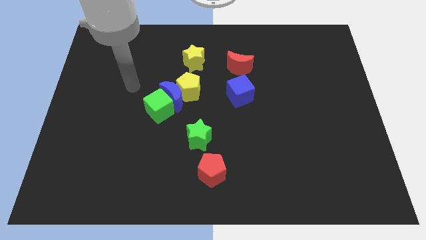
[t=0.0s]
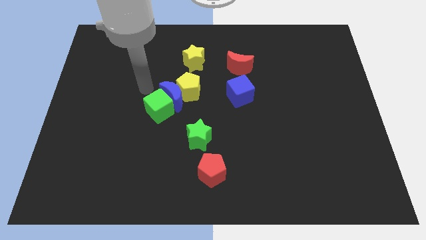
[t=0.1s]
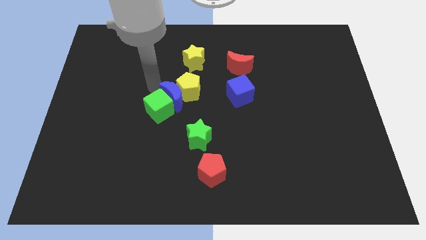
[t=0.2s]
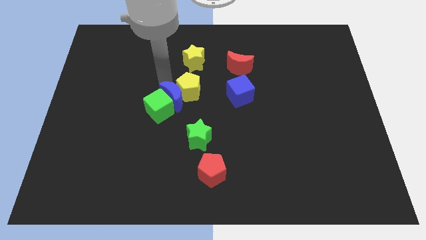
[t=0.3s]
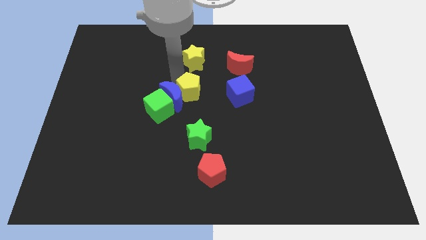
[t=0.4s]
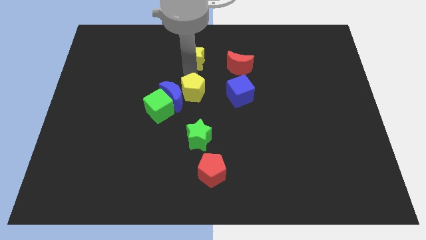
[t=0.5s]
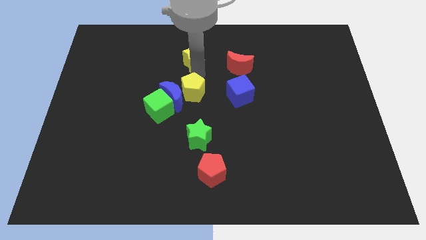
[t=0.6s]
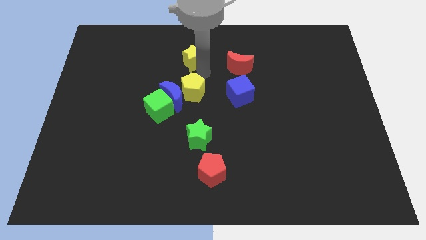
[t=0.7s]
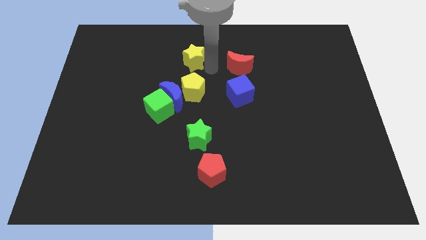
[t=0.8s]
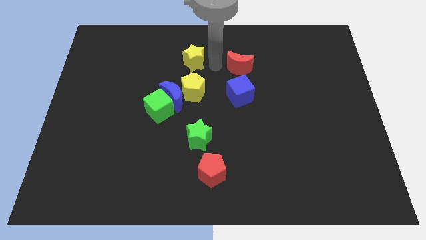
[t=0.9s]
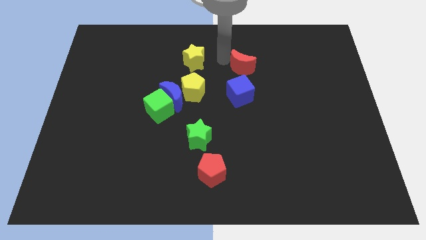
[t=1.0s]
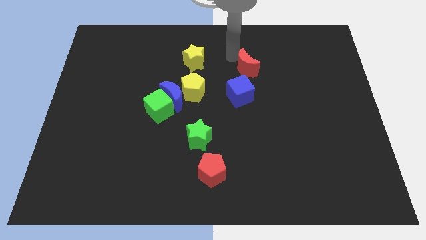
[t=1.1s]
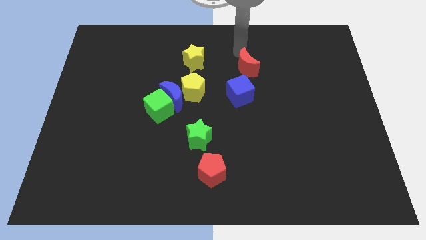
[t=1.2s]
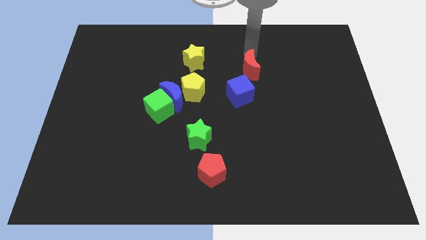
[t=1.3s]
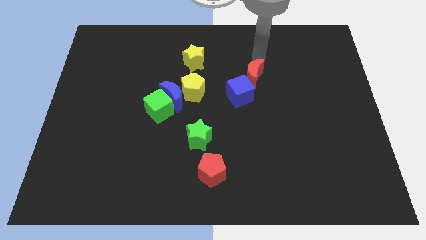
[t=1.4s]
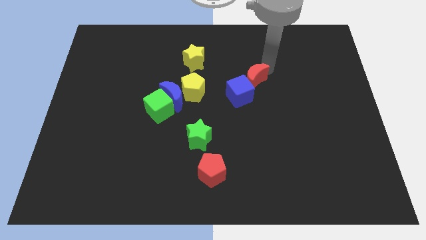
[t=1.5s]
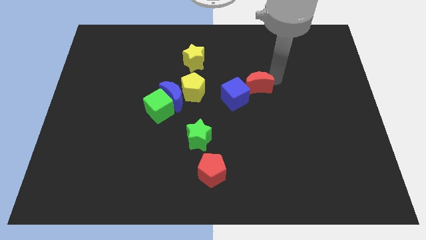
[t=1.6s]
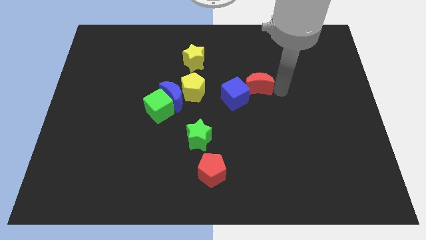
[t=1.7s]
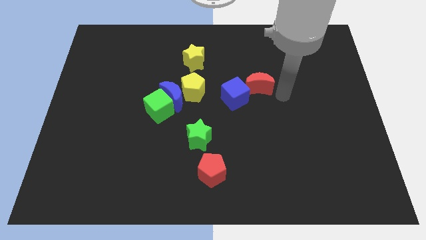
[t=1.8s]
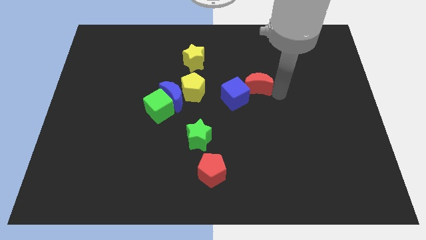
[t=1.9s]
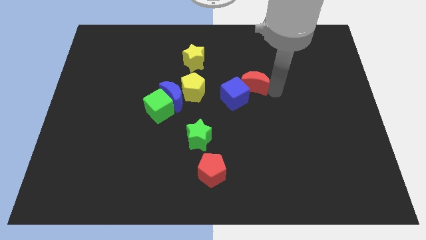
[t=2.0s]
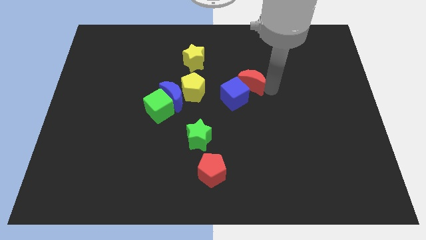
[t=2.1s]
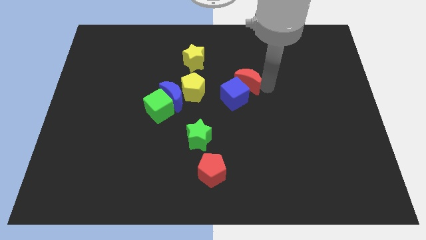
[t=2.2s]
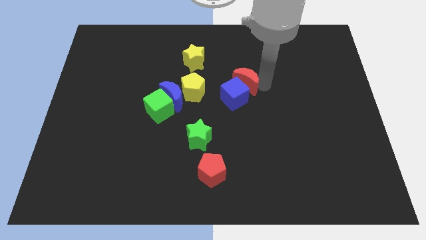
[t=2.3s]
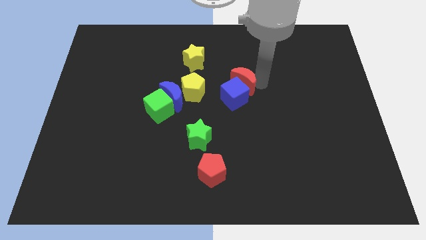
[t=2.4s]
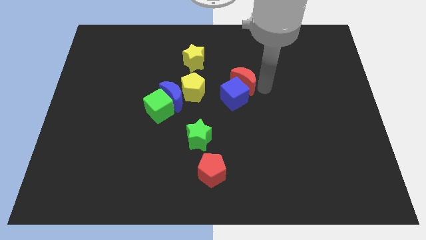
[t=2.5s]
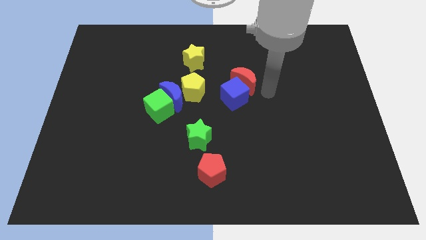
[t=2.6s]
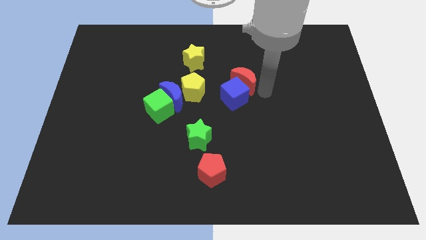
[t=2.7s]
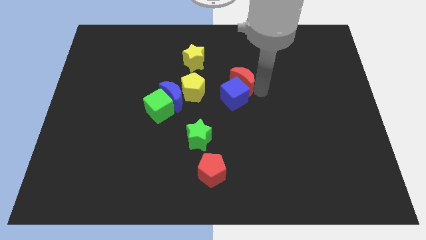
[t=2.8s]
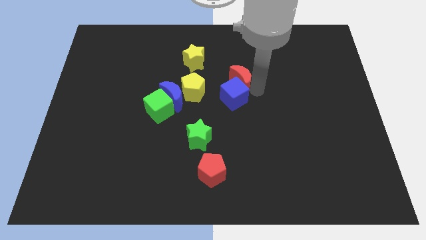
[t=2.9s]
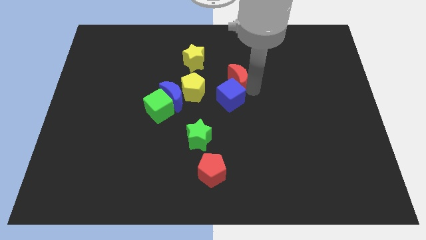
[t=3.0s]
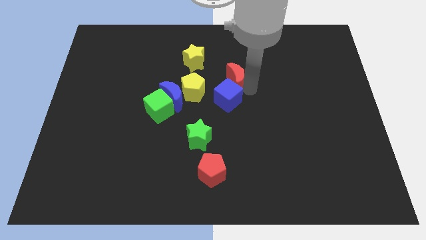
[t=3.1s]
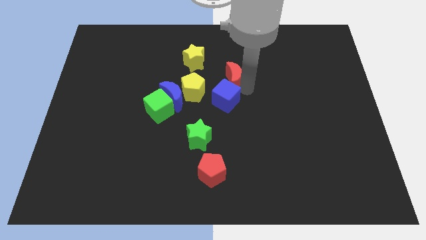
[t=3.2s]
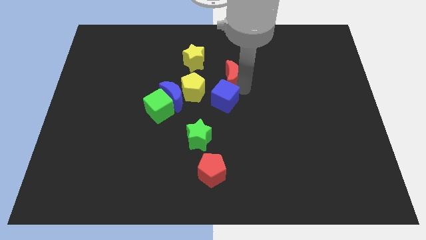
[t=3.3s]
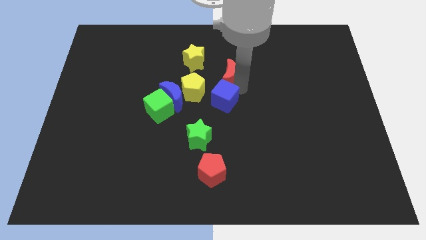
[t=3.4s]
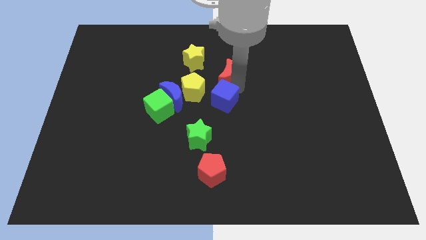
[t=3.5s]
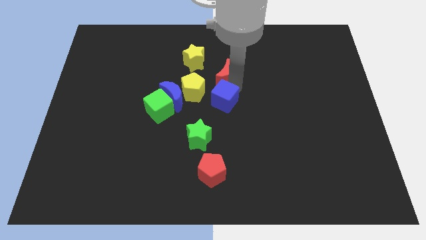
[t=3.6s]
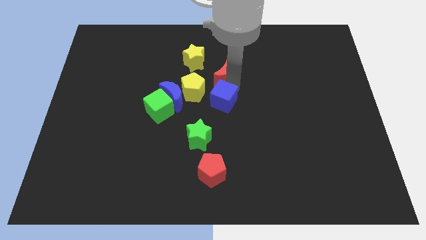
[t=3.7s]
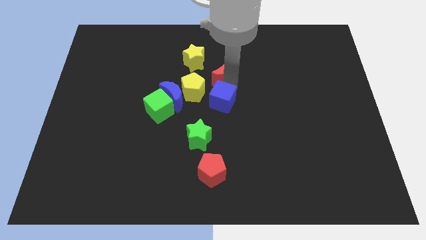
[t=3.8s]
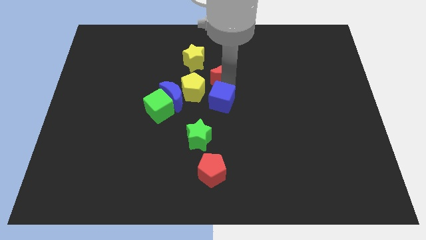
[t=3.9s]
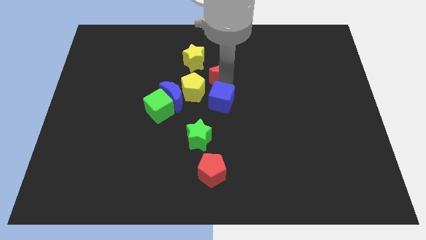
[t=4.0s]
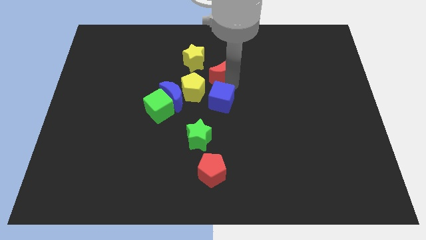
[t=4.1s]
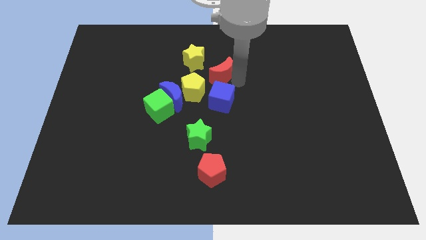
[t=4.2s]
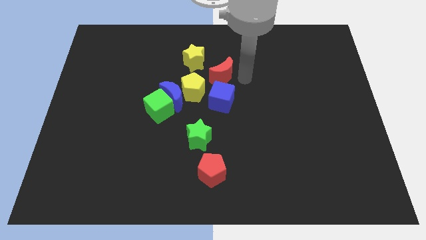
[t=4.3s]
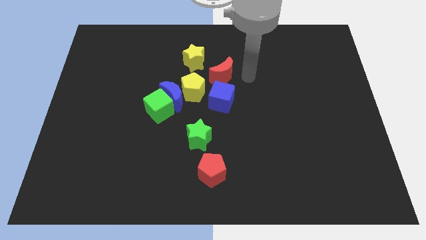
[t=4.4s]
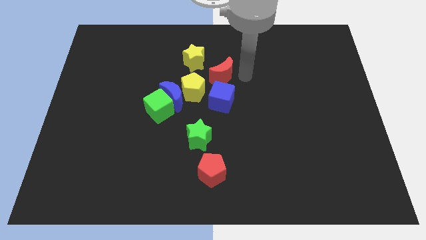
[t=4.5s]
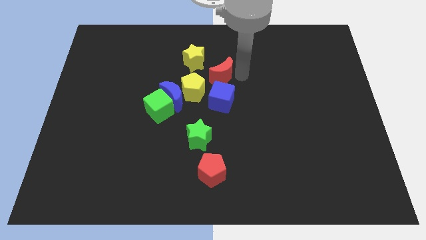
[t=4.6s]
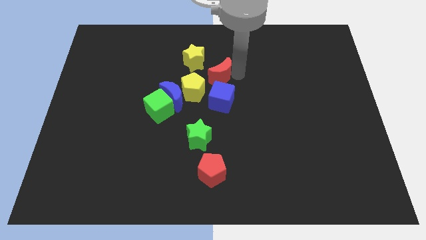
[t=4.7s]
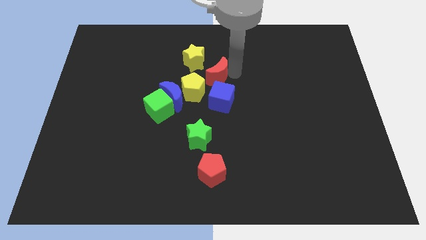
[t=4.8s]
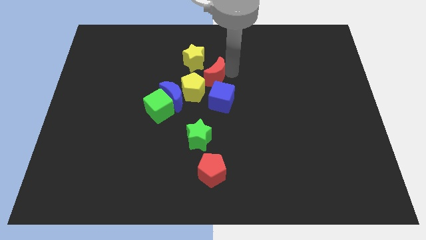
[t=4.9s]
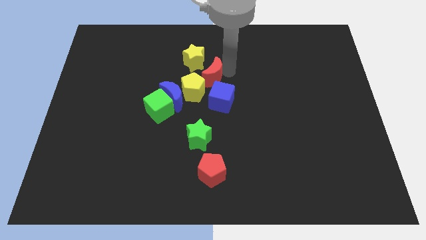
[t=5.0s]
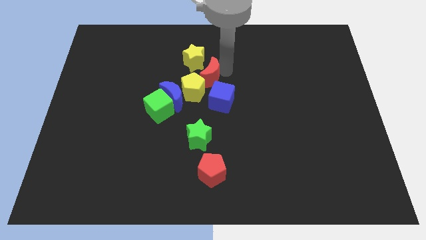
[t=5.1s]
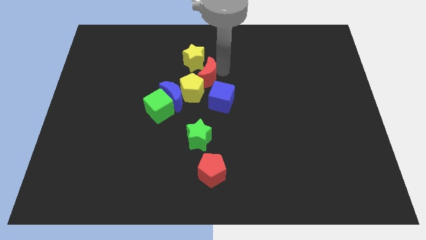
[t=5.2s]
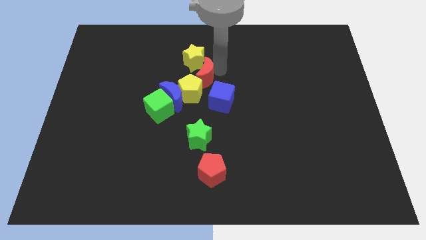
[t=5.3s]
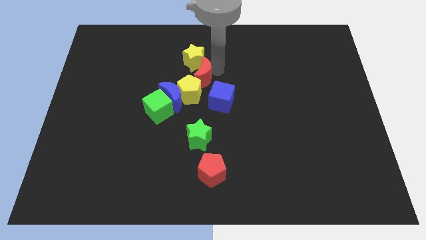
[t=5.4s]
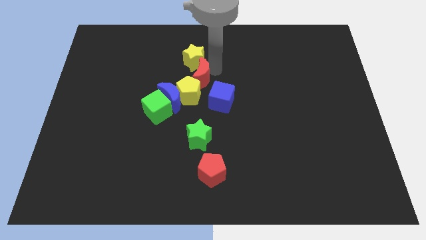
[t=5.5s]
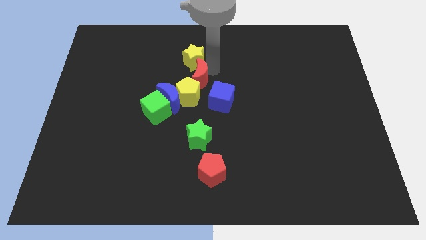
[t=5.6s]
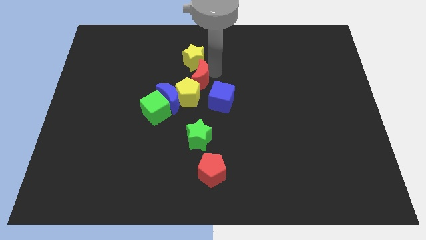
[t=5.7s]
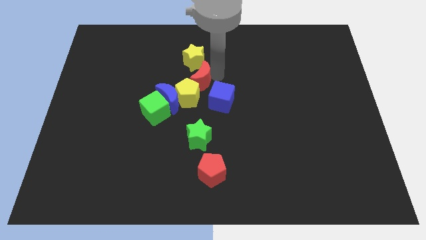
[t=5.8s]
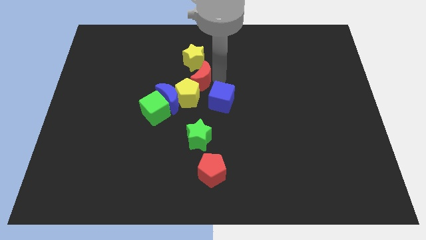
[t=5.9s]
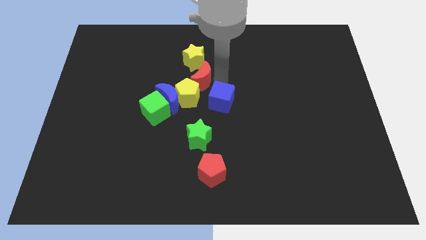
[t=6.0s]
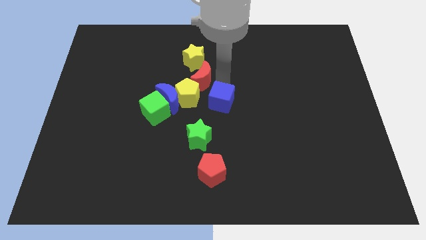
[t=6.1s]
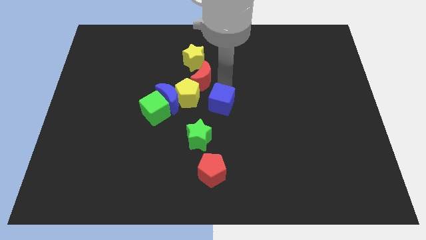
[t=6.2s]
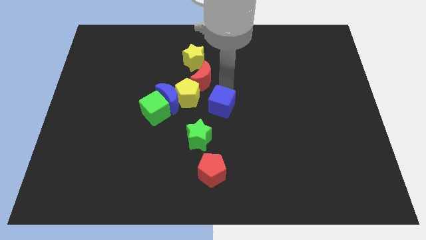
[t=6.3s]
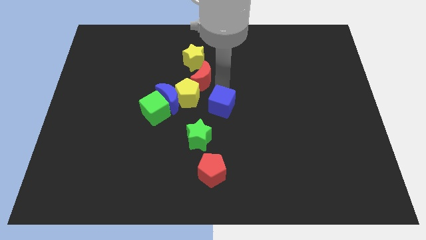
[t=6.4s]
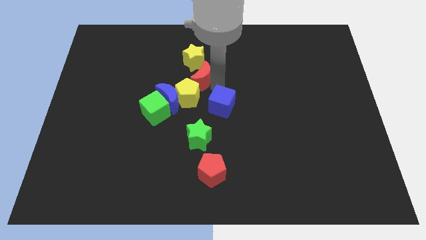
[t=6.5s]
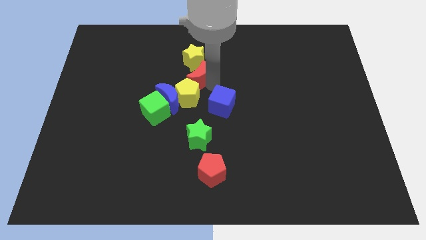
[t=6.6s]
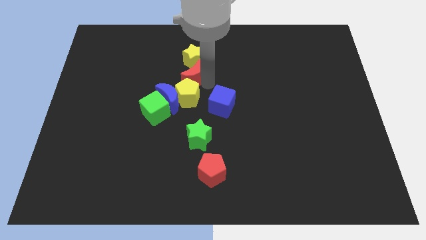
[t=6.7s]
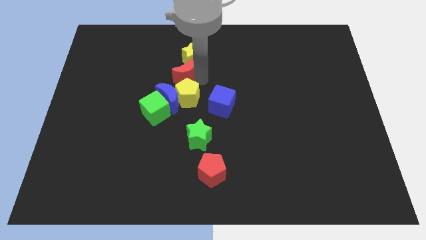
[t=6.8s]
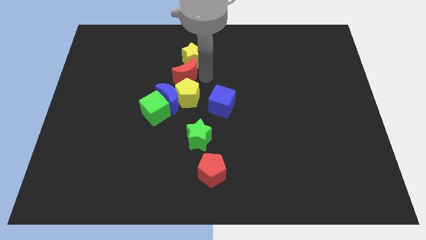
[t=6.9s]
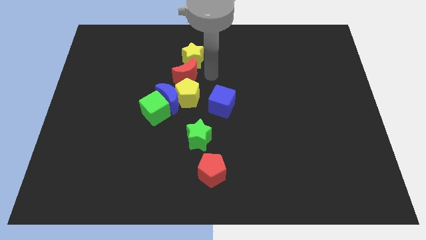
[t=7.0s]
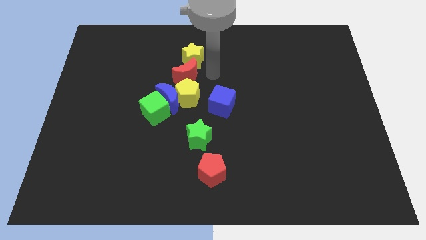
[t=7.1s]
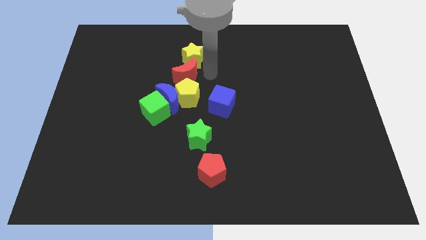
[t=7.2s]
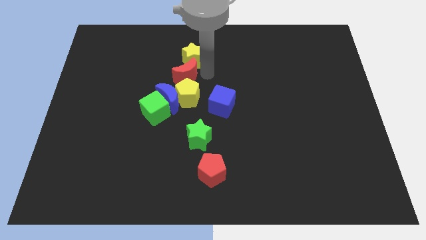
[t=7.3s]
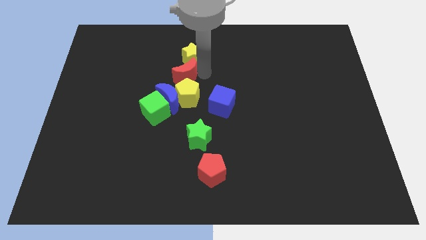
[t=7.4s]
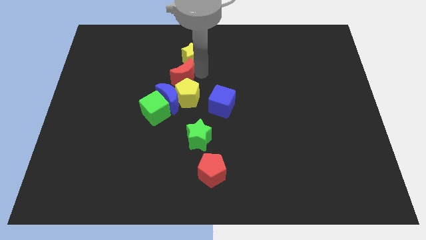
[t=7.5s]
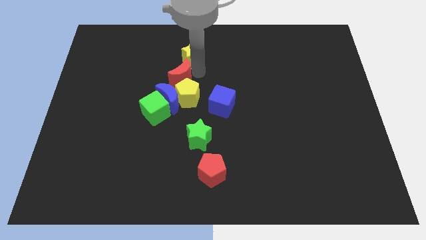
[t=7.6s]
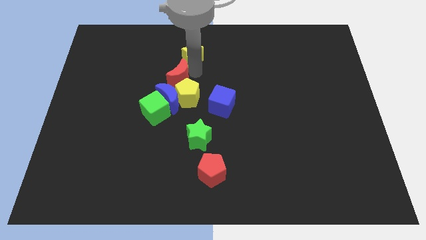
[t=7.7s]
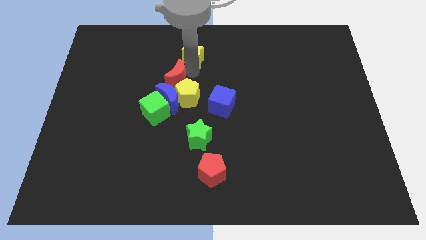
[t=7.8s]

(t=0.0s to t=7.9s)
put the red moon to the top of the green cube
